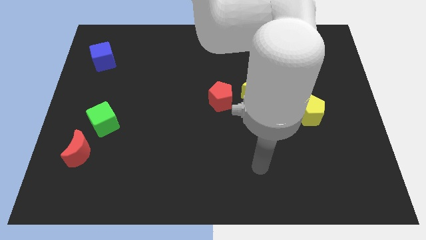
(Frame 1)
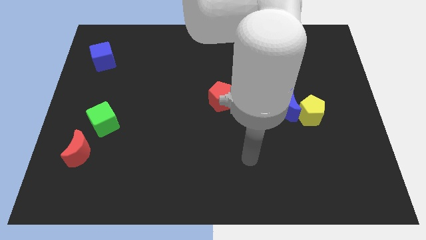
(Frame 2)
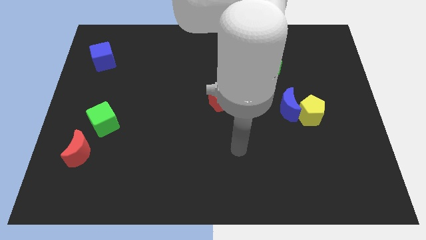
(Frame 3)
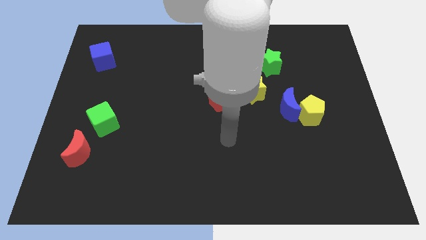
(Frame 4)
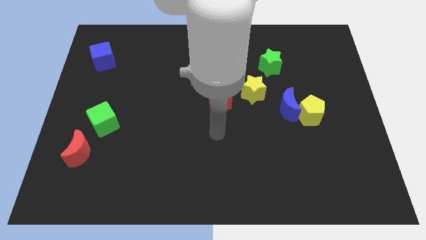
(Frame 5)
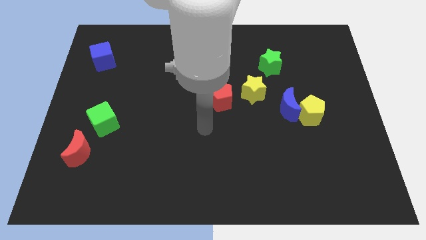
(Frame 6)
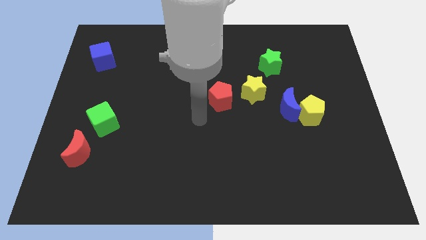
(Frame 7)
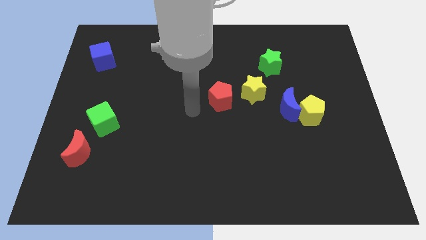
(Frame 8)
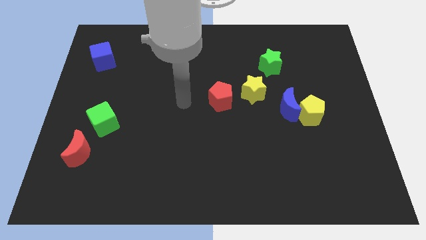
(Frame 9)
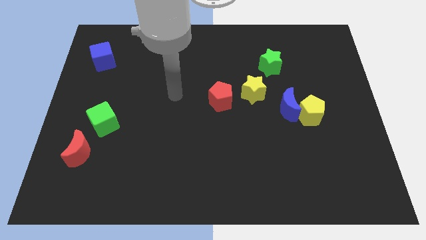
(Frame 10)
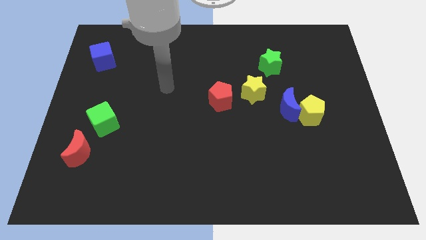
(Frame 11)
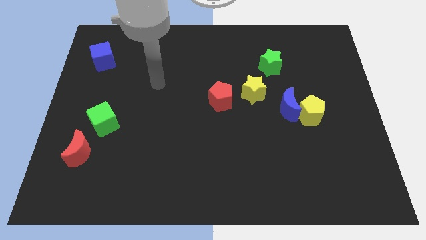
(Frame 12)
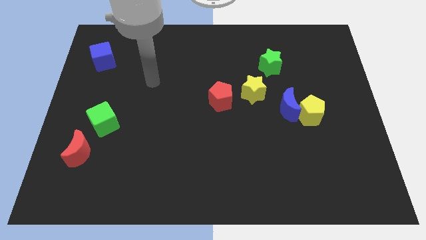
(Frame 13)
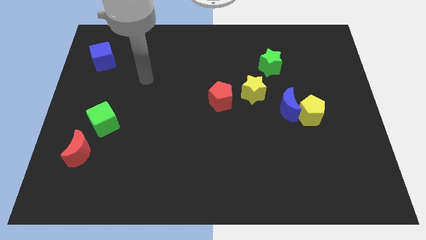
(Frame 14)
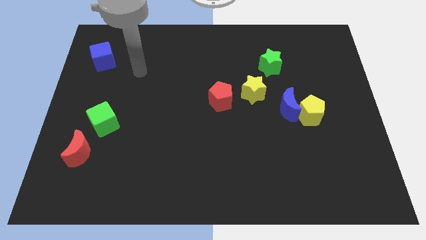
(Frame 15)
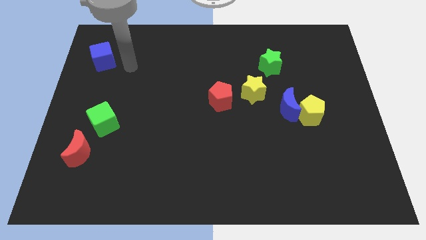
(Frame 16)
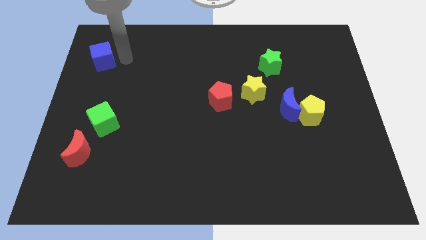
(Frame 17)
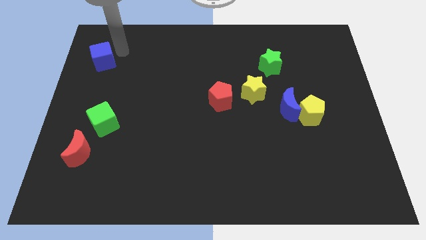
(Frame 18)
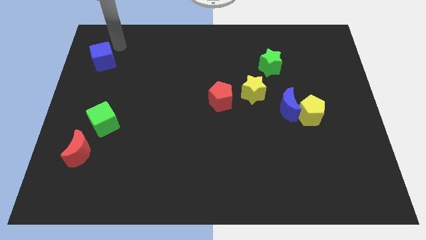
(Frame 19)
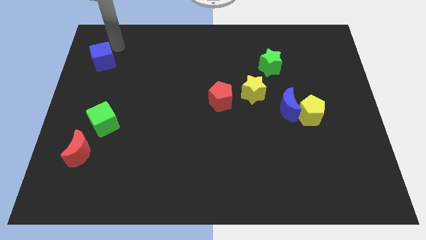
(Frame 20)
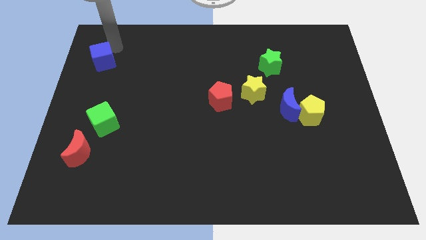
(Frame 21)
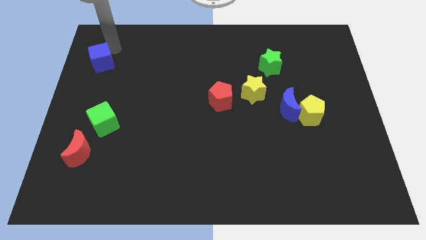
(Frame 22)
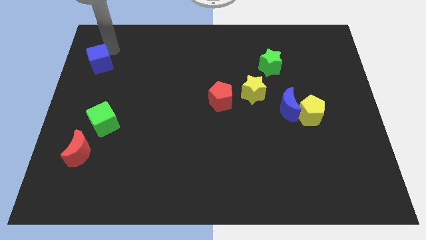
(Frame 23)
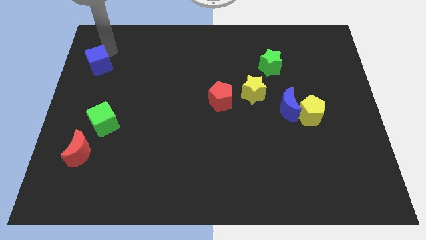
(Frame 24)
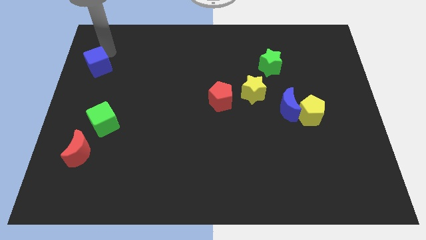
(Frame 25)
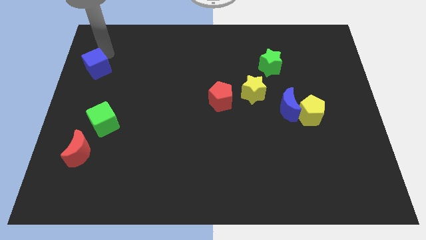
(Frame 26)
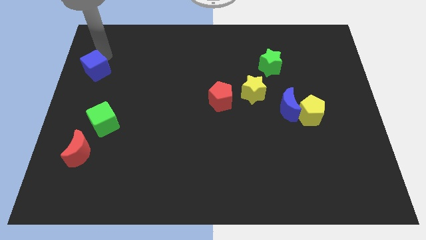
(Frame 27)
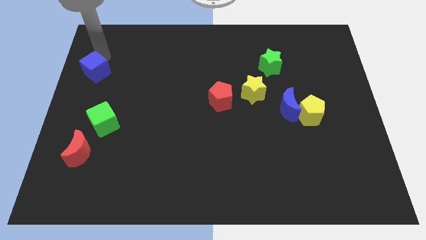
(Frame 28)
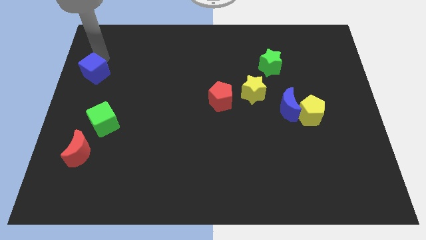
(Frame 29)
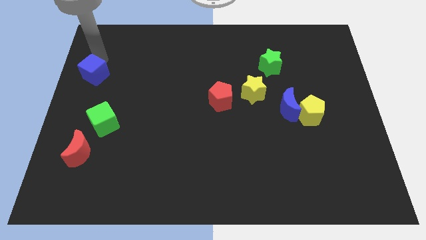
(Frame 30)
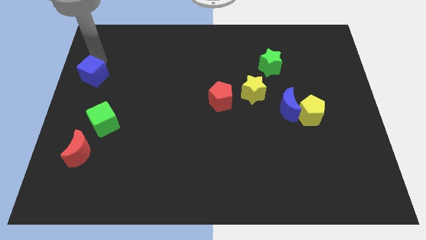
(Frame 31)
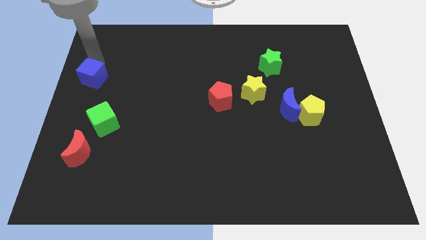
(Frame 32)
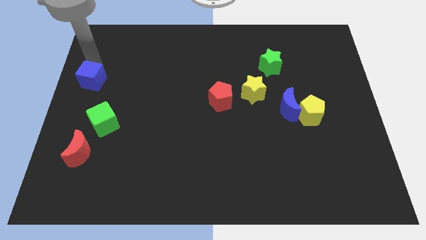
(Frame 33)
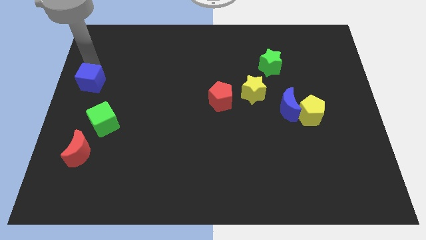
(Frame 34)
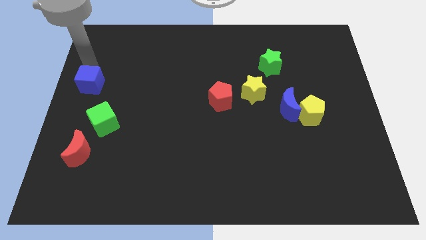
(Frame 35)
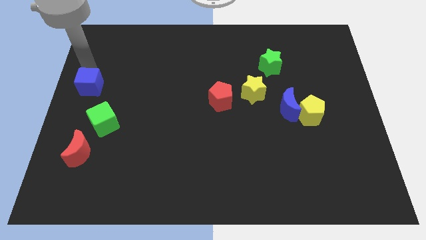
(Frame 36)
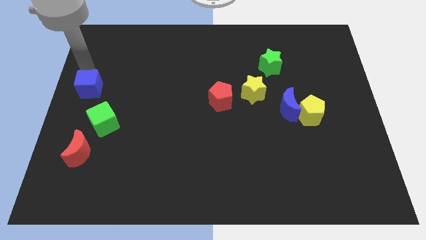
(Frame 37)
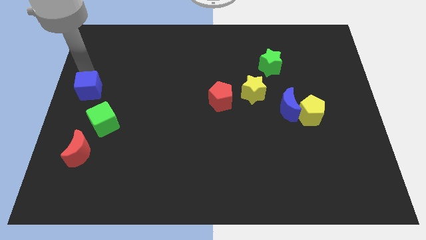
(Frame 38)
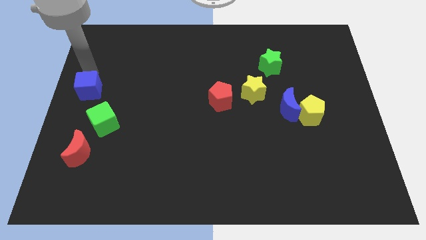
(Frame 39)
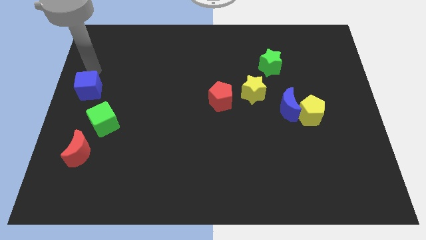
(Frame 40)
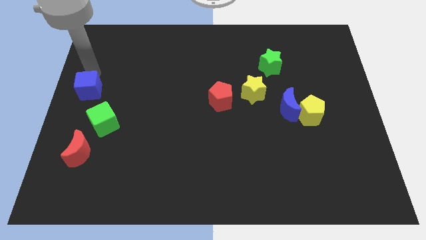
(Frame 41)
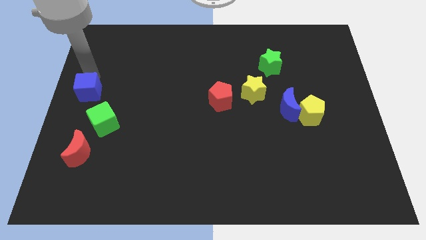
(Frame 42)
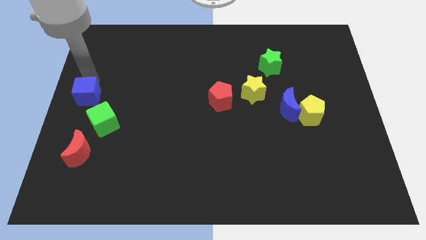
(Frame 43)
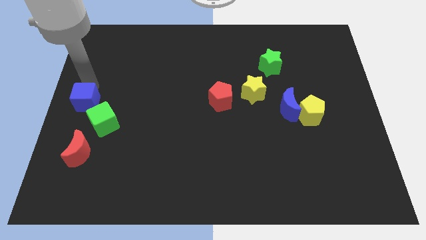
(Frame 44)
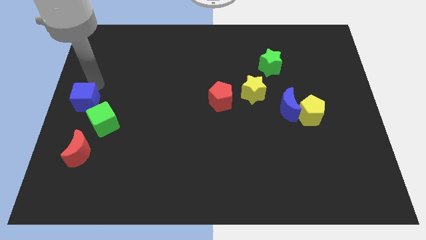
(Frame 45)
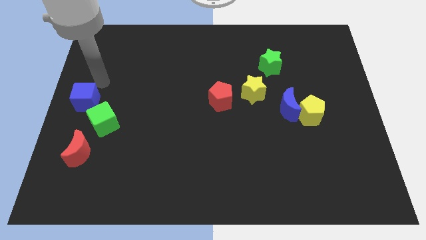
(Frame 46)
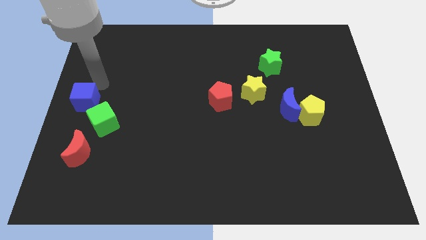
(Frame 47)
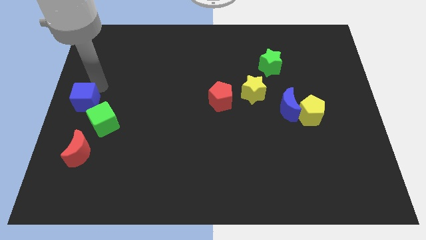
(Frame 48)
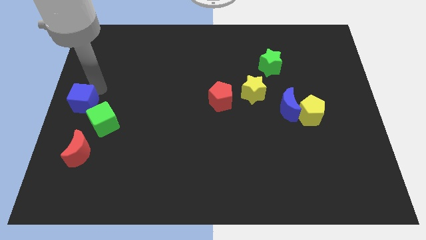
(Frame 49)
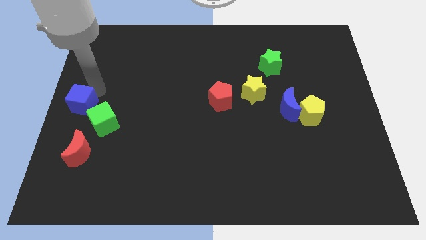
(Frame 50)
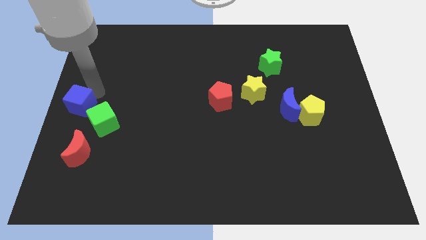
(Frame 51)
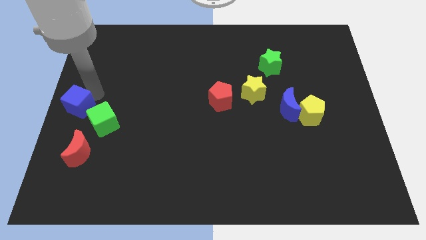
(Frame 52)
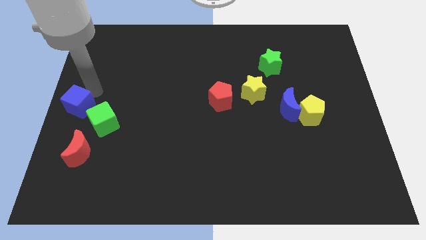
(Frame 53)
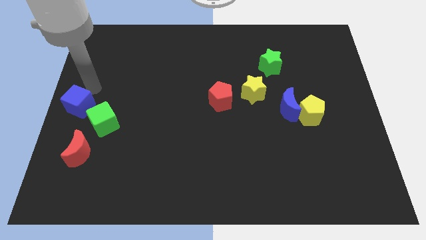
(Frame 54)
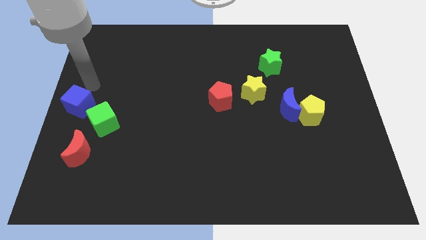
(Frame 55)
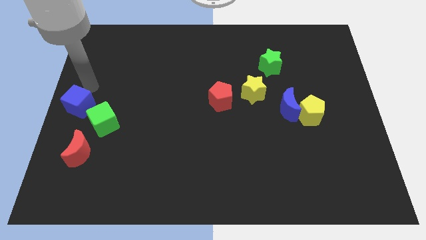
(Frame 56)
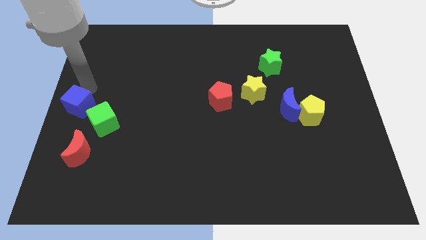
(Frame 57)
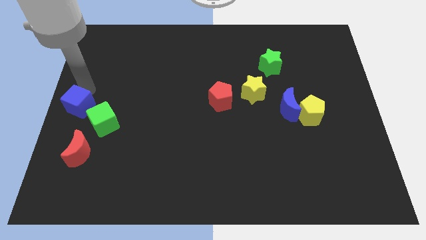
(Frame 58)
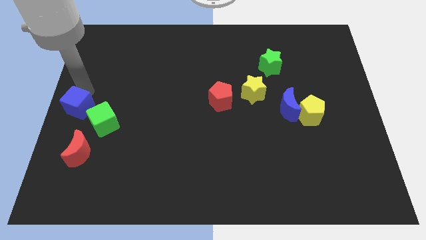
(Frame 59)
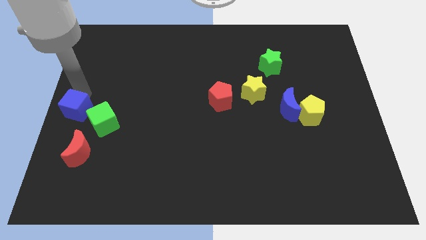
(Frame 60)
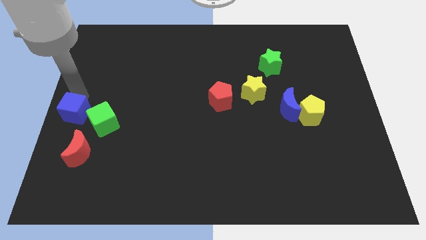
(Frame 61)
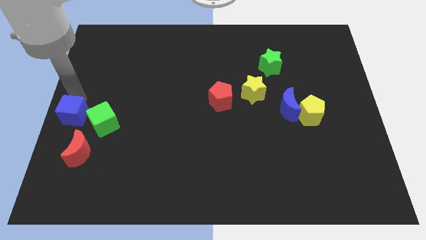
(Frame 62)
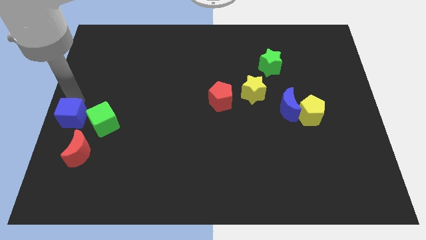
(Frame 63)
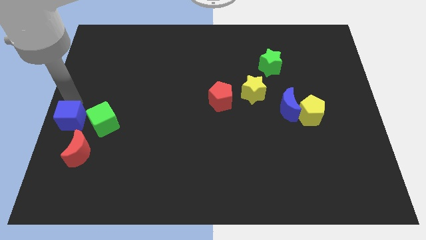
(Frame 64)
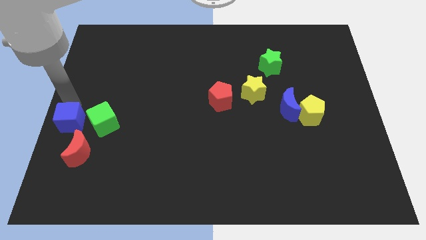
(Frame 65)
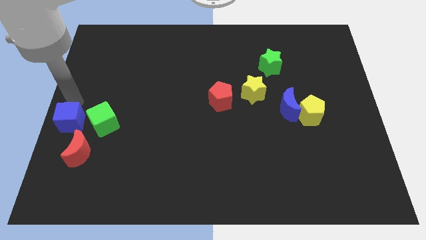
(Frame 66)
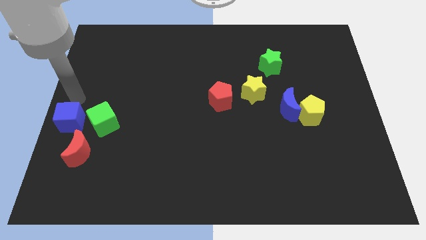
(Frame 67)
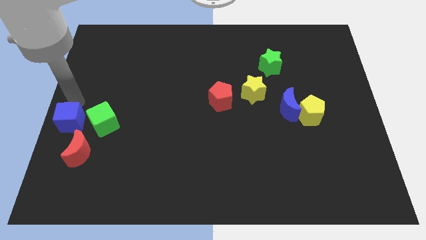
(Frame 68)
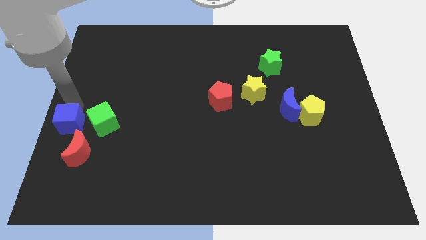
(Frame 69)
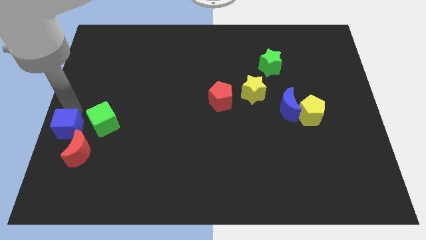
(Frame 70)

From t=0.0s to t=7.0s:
push the blue cube down

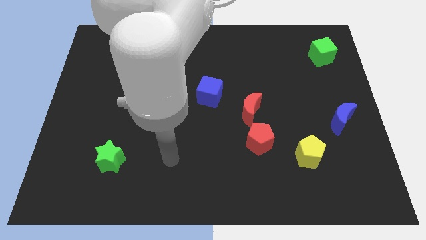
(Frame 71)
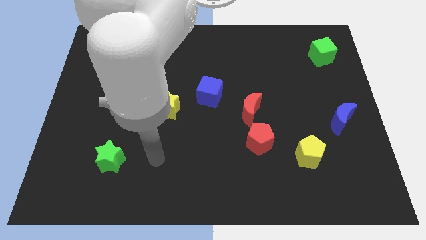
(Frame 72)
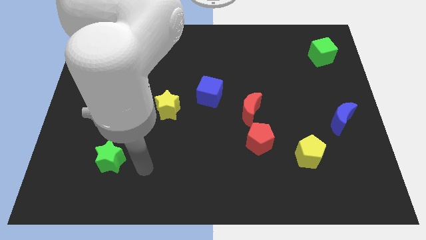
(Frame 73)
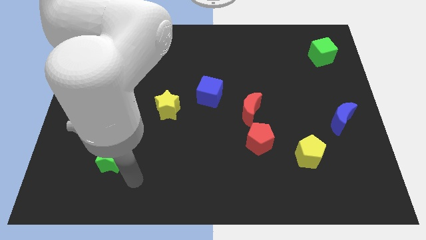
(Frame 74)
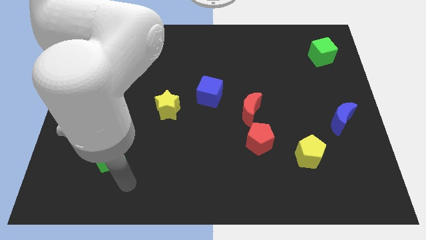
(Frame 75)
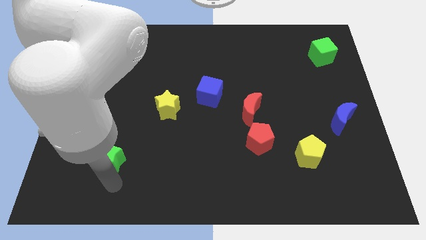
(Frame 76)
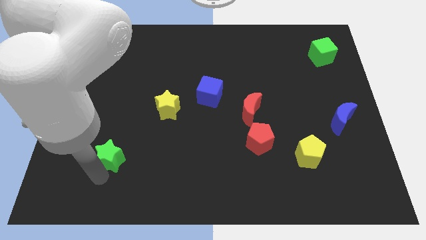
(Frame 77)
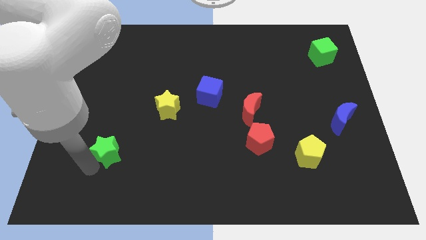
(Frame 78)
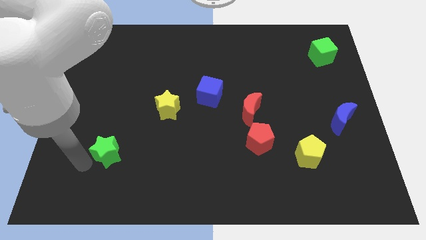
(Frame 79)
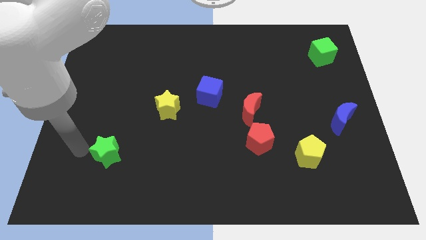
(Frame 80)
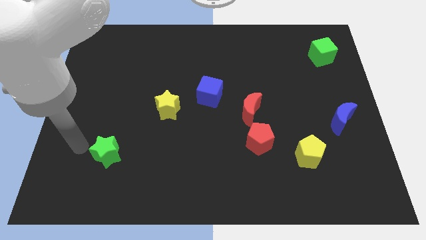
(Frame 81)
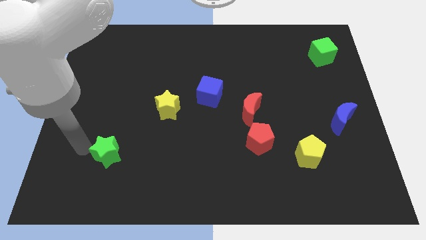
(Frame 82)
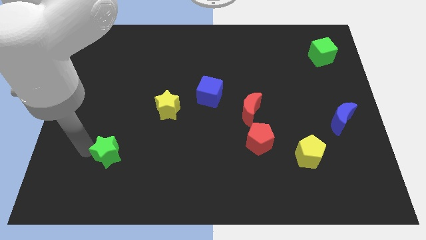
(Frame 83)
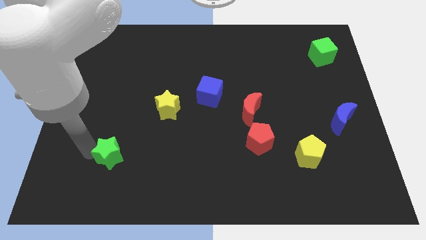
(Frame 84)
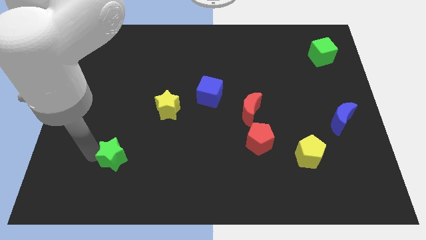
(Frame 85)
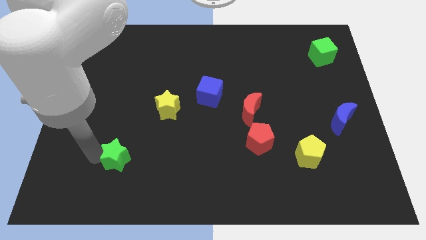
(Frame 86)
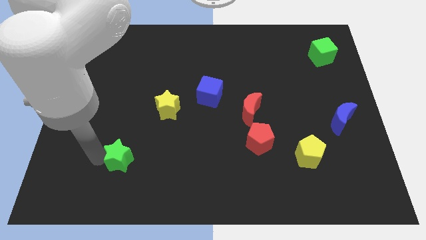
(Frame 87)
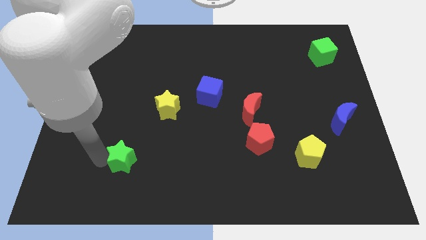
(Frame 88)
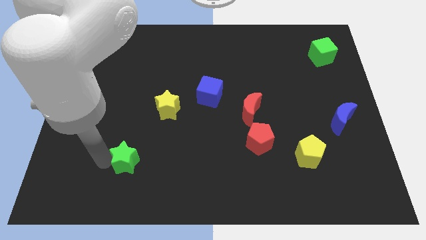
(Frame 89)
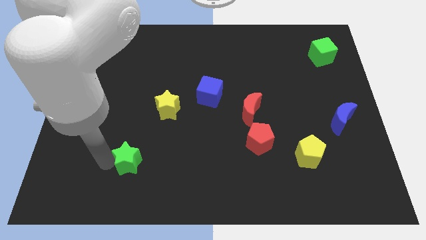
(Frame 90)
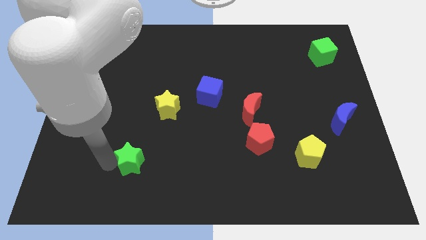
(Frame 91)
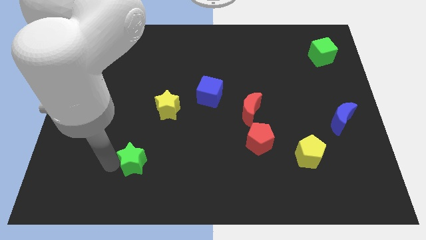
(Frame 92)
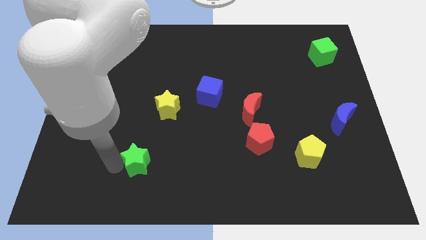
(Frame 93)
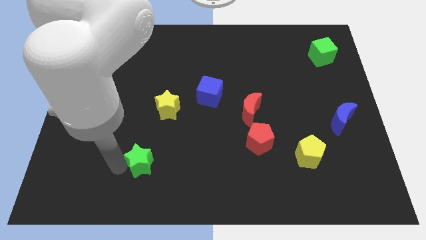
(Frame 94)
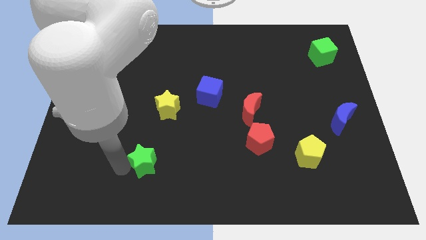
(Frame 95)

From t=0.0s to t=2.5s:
slide the green star to the right slightly
